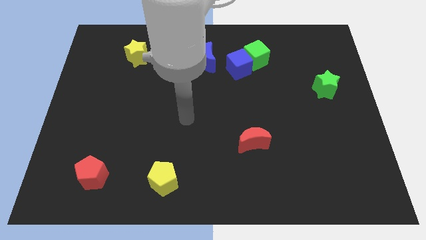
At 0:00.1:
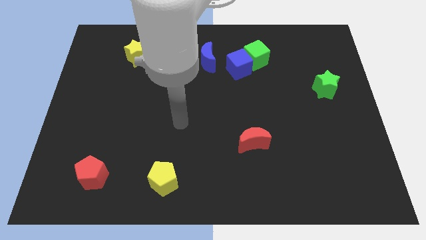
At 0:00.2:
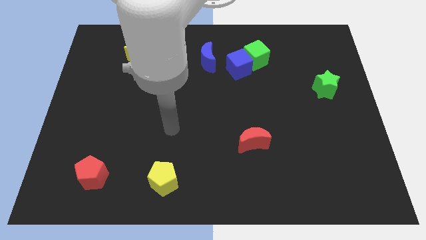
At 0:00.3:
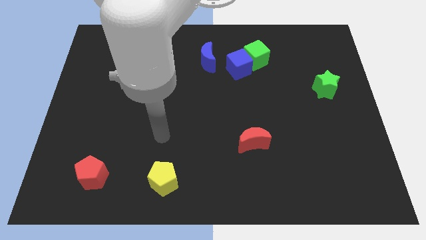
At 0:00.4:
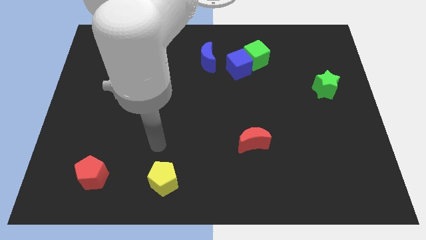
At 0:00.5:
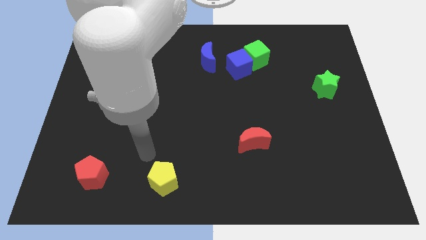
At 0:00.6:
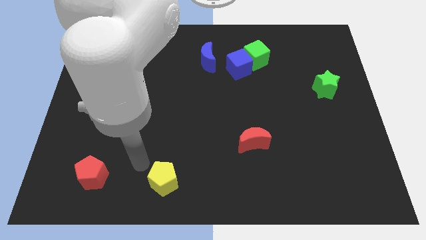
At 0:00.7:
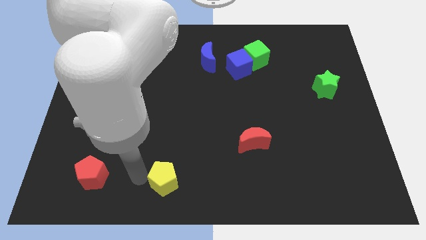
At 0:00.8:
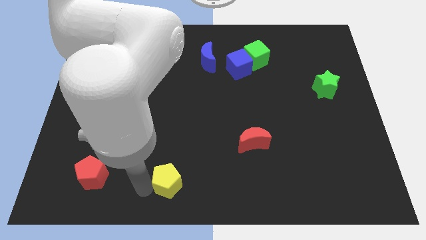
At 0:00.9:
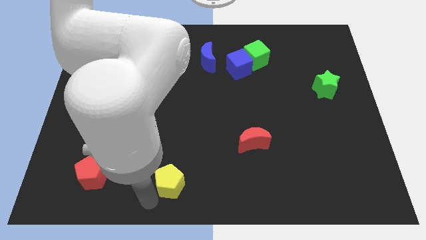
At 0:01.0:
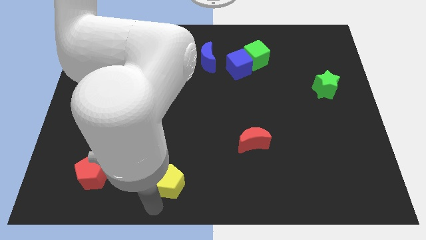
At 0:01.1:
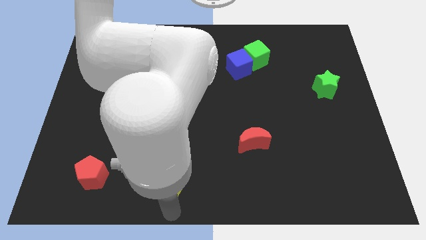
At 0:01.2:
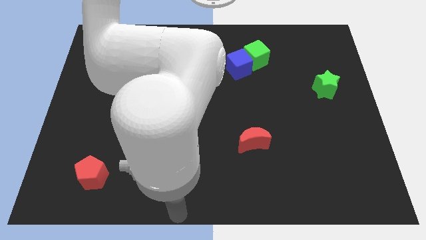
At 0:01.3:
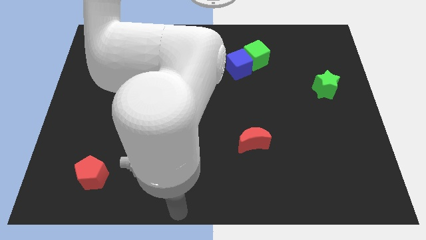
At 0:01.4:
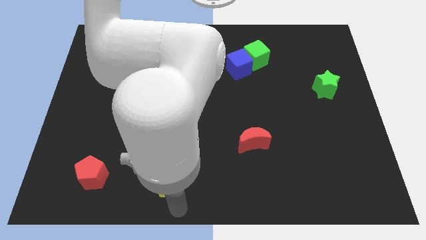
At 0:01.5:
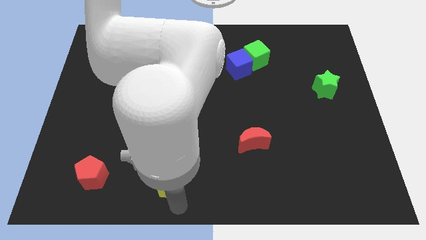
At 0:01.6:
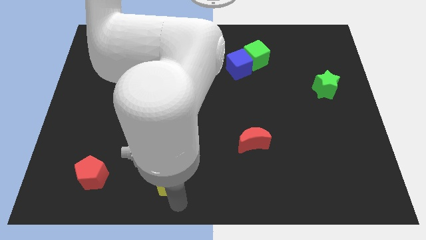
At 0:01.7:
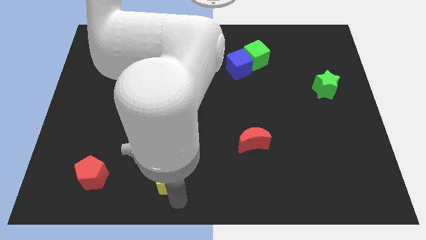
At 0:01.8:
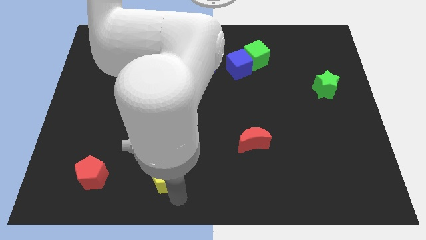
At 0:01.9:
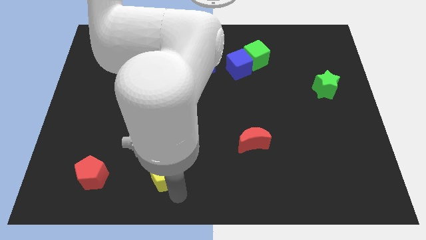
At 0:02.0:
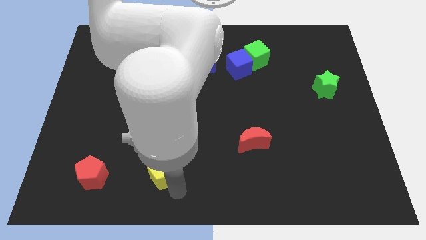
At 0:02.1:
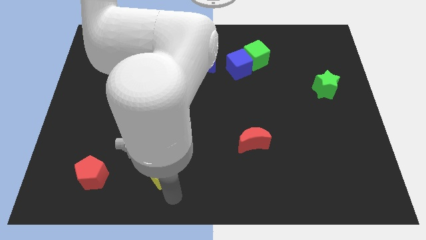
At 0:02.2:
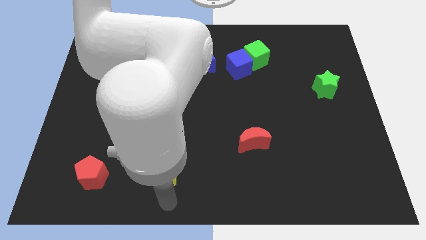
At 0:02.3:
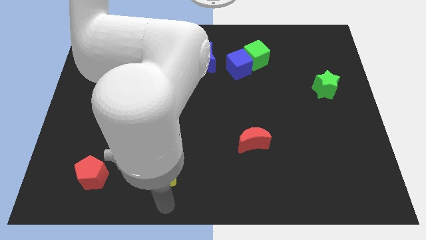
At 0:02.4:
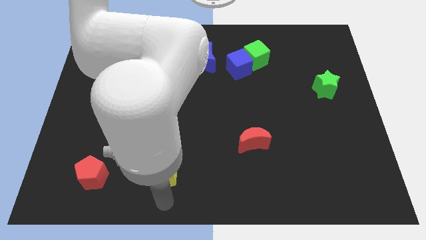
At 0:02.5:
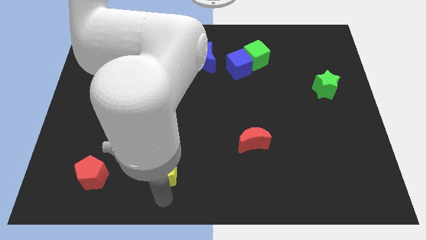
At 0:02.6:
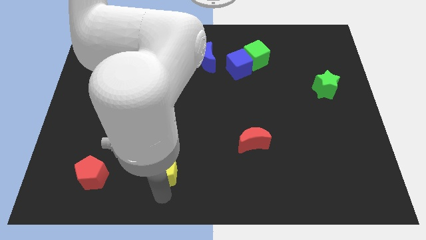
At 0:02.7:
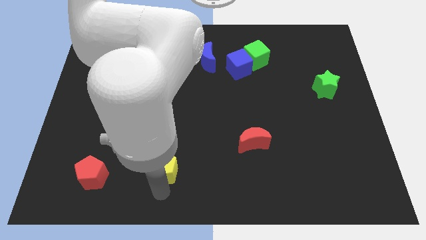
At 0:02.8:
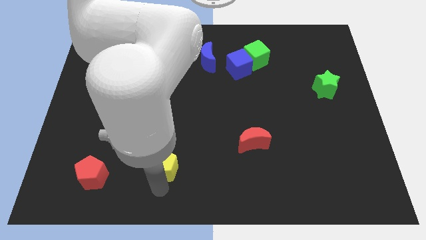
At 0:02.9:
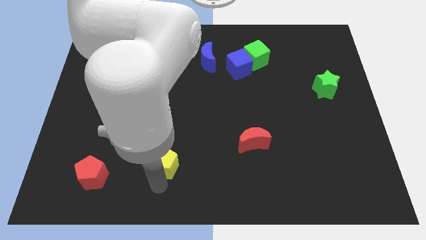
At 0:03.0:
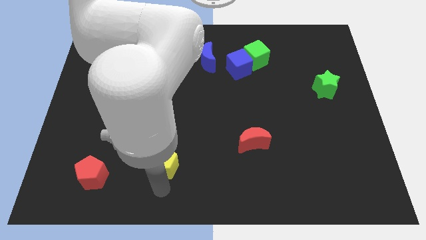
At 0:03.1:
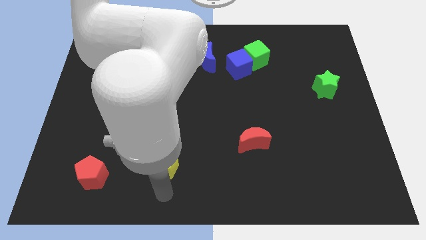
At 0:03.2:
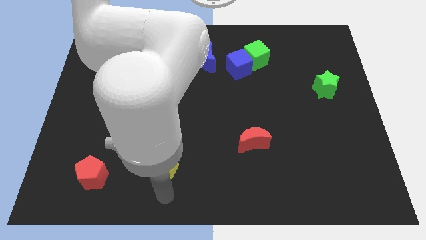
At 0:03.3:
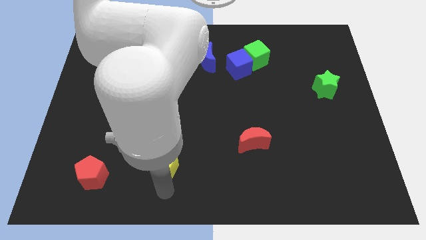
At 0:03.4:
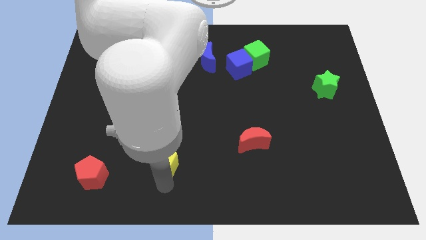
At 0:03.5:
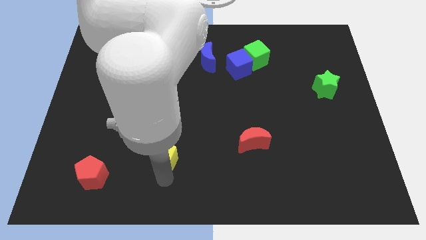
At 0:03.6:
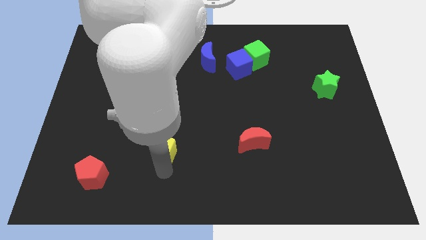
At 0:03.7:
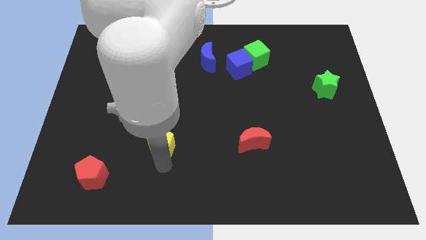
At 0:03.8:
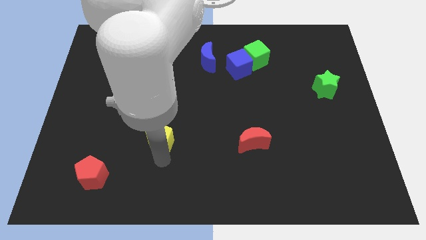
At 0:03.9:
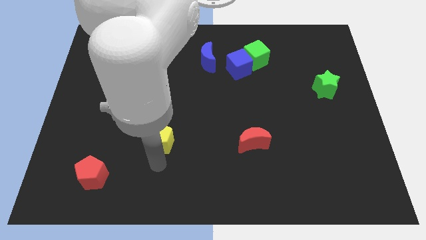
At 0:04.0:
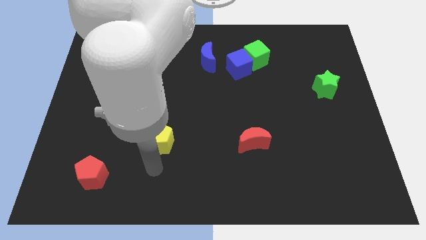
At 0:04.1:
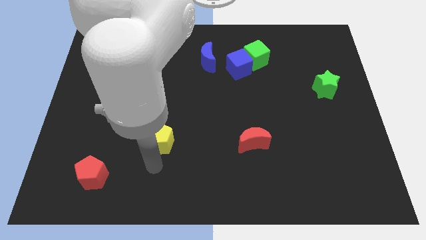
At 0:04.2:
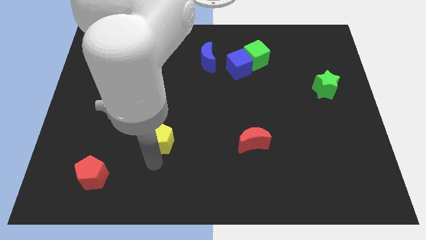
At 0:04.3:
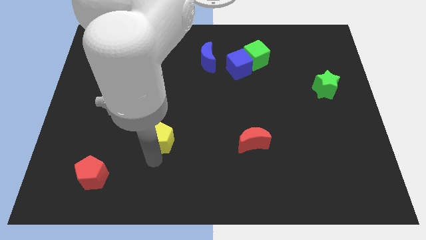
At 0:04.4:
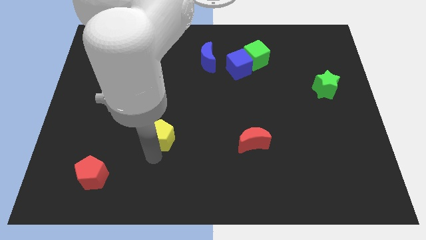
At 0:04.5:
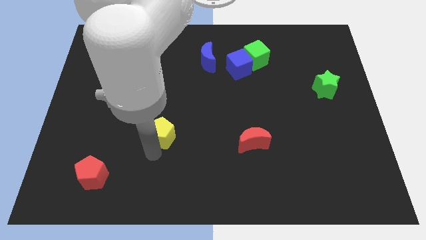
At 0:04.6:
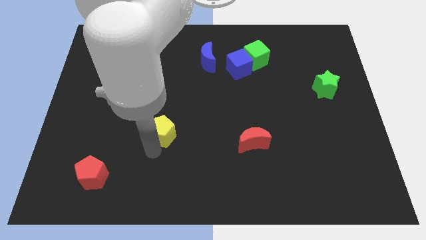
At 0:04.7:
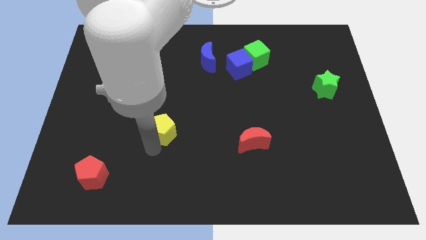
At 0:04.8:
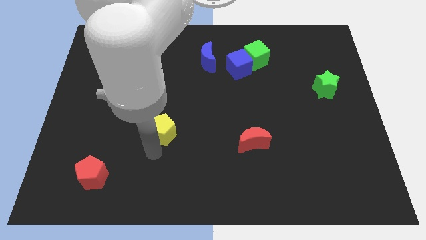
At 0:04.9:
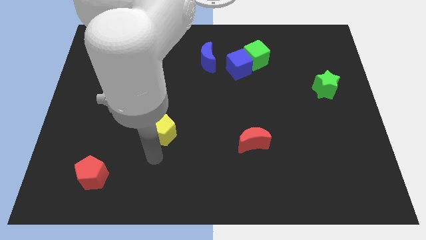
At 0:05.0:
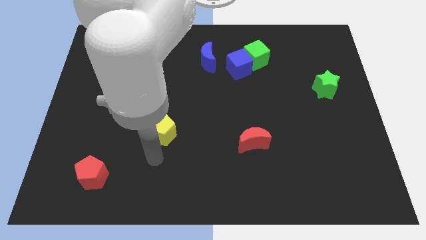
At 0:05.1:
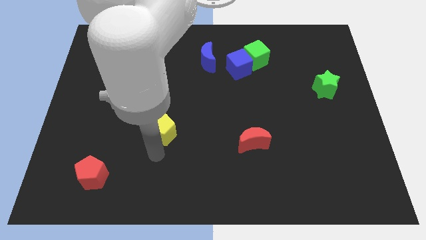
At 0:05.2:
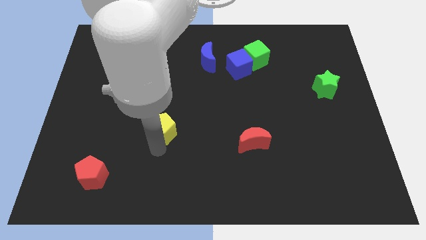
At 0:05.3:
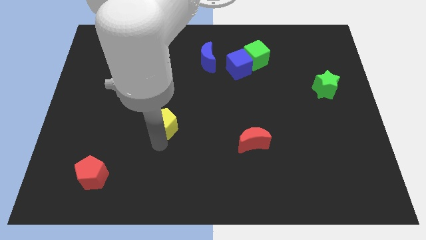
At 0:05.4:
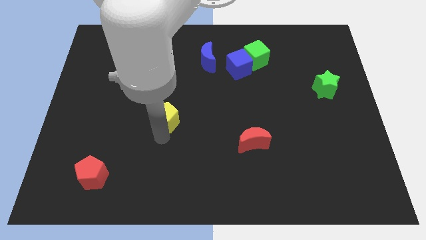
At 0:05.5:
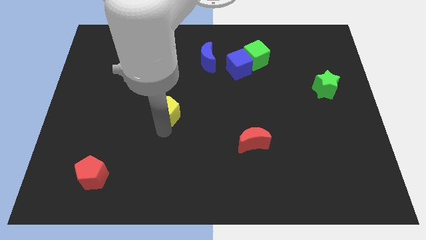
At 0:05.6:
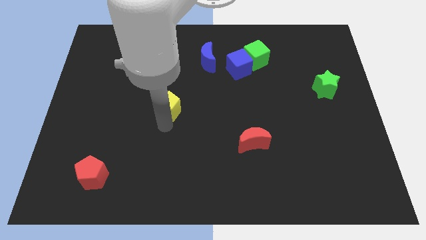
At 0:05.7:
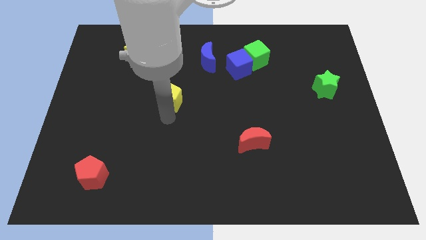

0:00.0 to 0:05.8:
push the yellow pentagon up

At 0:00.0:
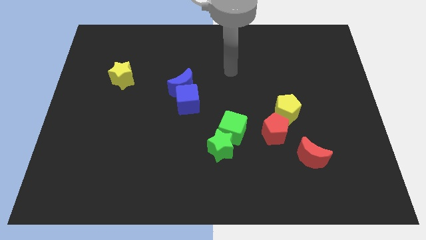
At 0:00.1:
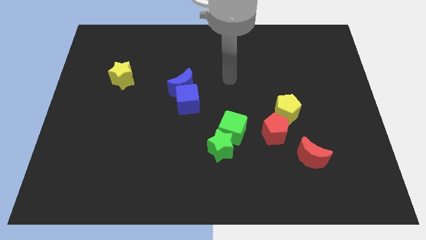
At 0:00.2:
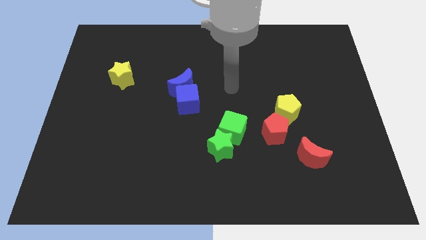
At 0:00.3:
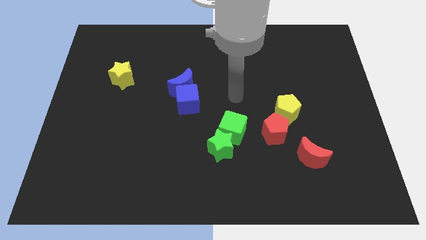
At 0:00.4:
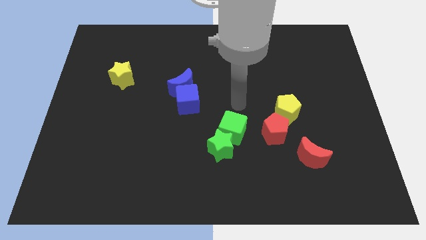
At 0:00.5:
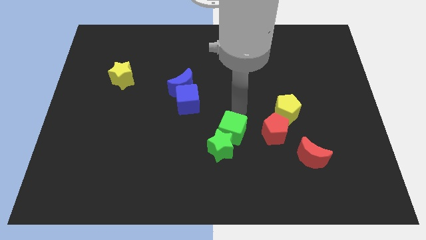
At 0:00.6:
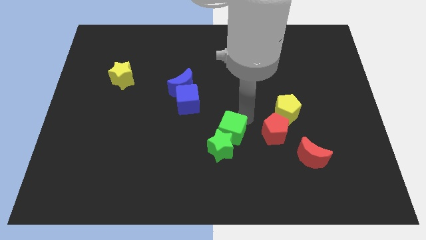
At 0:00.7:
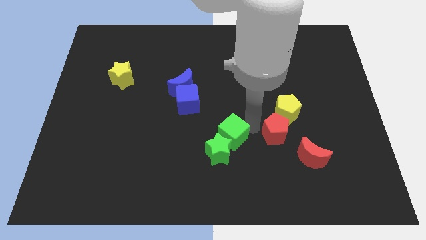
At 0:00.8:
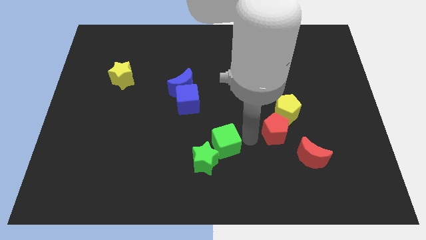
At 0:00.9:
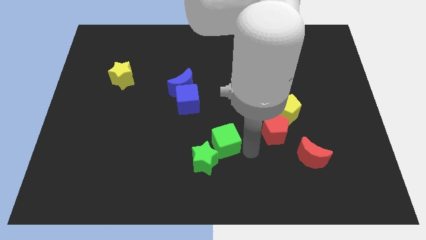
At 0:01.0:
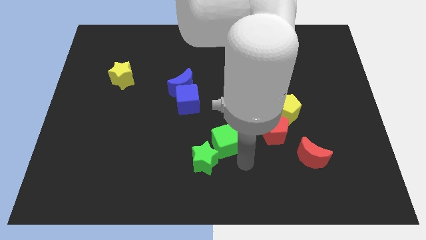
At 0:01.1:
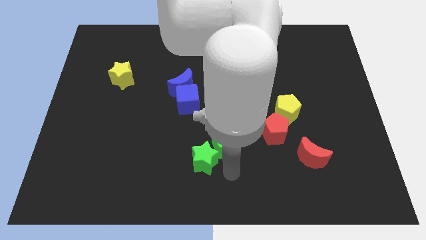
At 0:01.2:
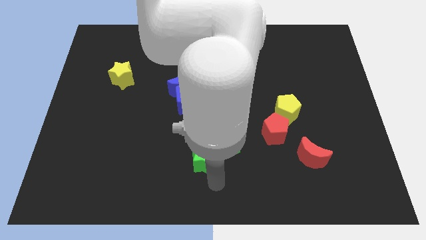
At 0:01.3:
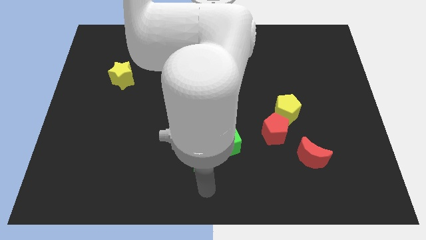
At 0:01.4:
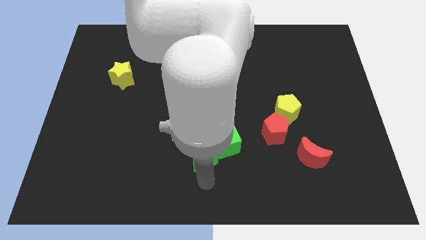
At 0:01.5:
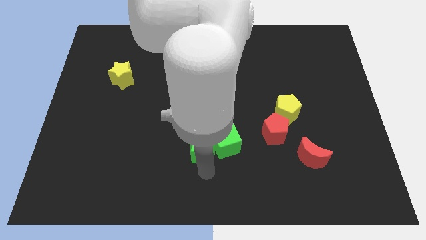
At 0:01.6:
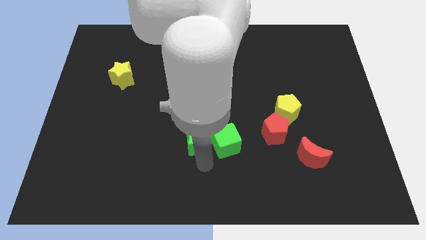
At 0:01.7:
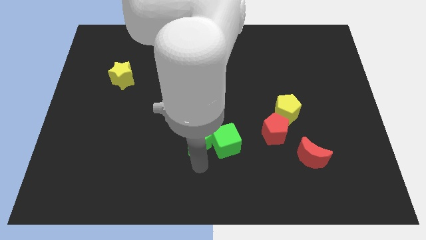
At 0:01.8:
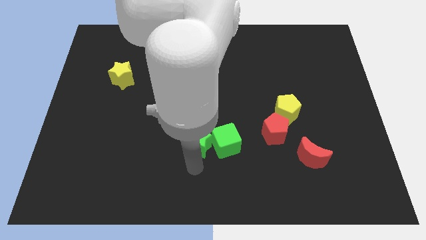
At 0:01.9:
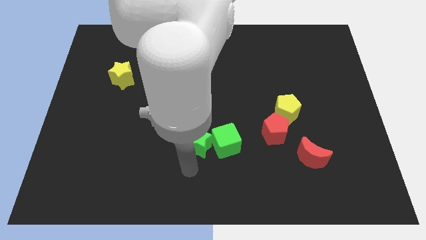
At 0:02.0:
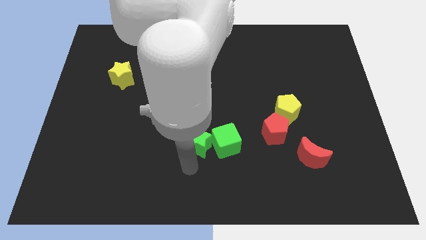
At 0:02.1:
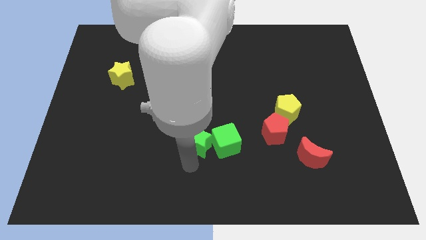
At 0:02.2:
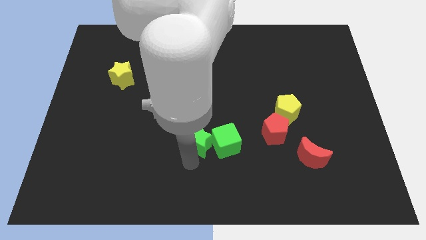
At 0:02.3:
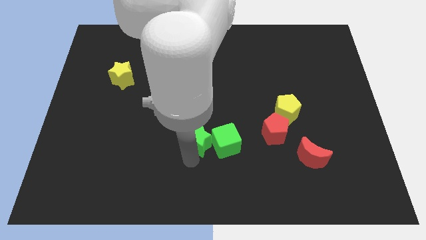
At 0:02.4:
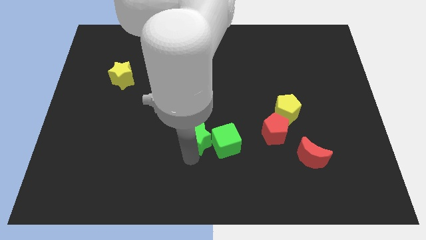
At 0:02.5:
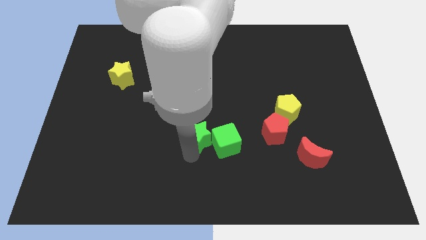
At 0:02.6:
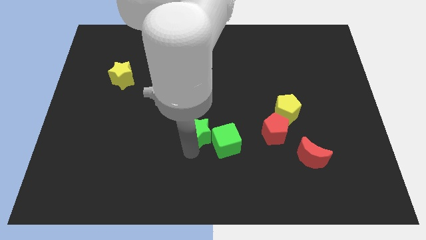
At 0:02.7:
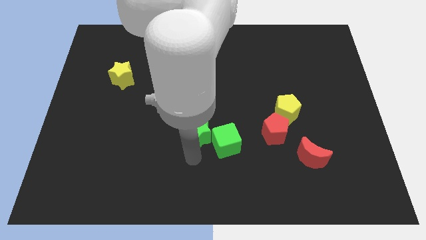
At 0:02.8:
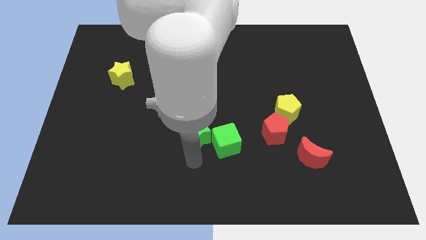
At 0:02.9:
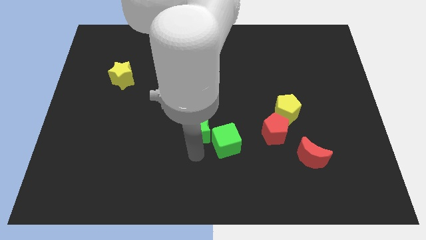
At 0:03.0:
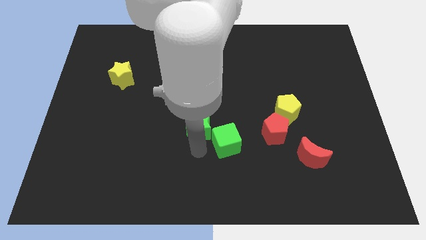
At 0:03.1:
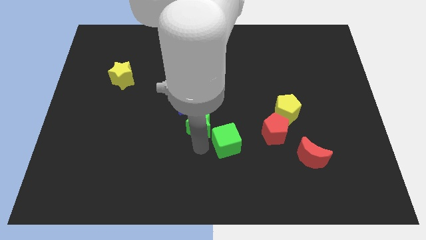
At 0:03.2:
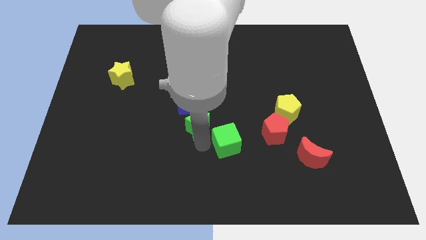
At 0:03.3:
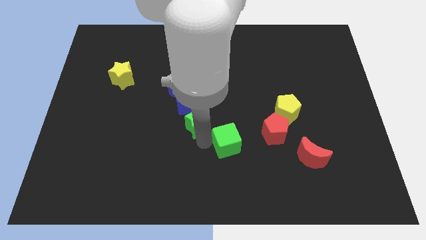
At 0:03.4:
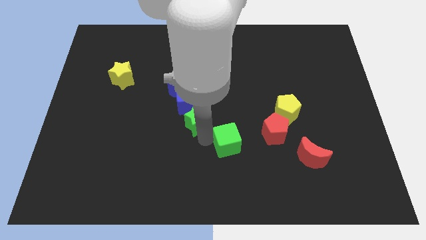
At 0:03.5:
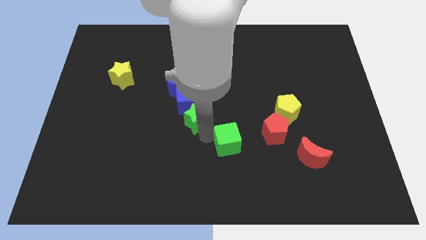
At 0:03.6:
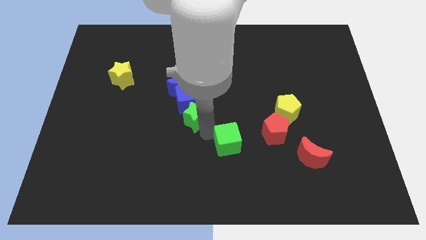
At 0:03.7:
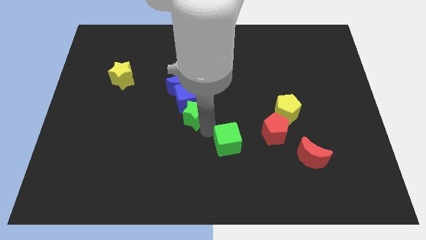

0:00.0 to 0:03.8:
push the green star somewhat up
